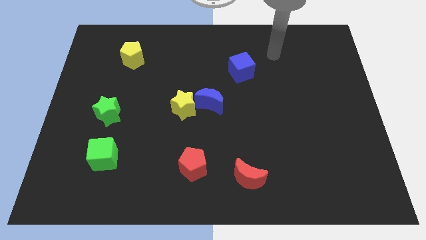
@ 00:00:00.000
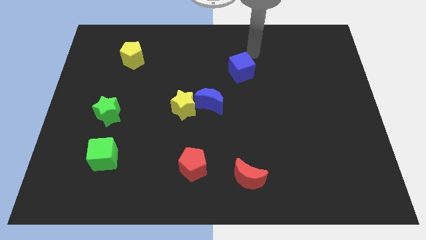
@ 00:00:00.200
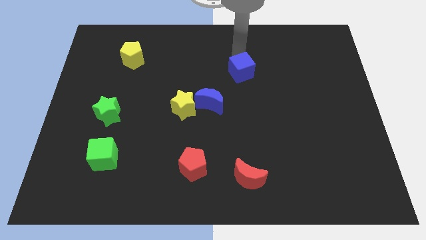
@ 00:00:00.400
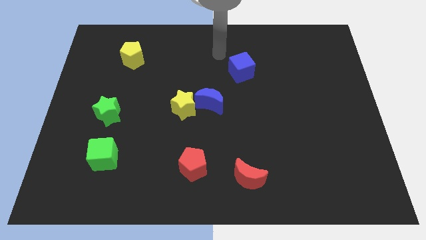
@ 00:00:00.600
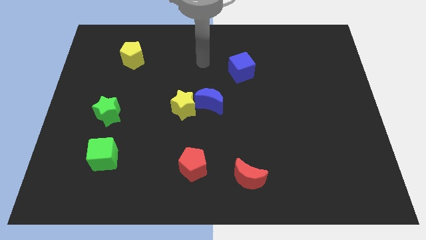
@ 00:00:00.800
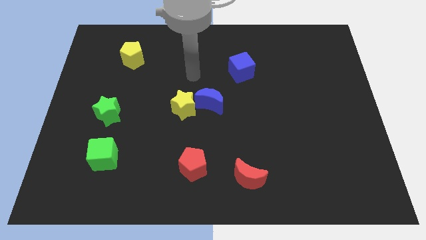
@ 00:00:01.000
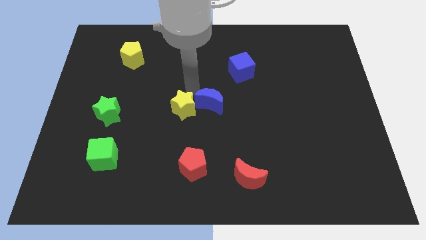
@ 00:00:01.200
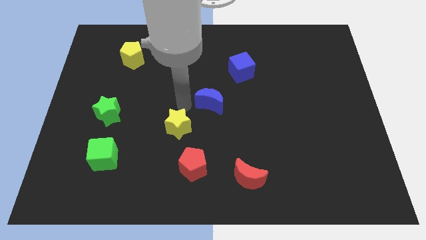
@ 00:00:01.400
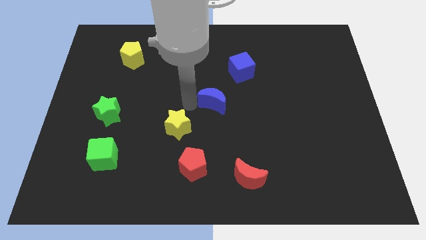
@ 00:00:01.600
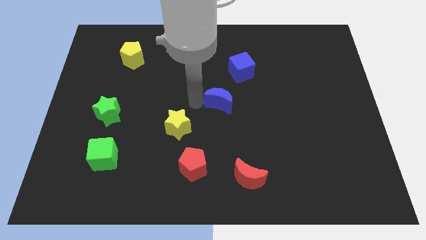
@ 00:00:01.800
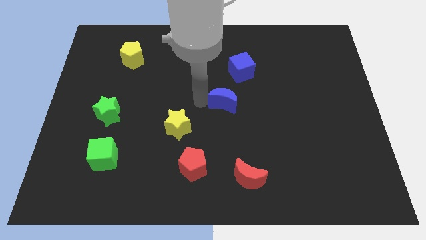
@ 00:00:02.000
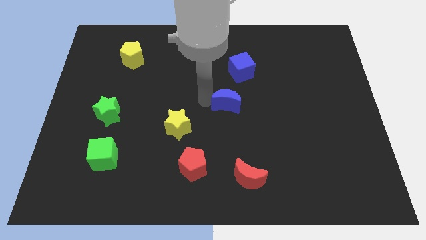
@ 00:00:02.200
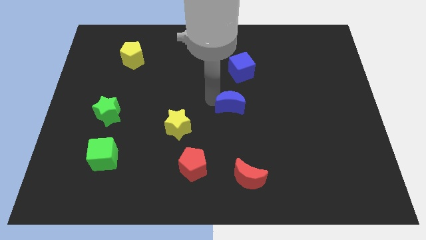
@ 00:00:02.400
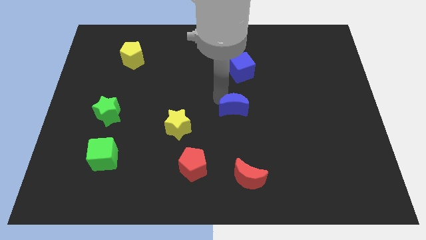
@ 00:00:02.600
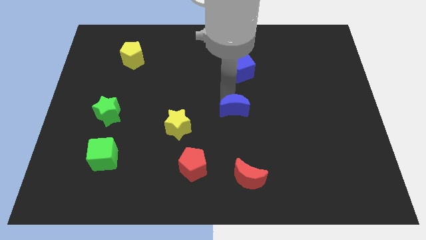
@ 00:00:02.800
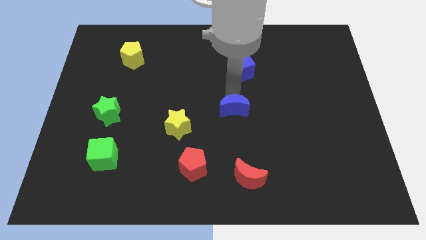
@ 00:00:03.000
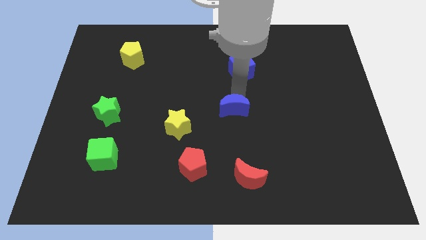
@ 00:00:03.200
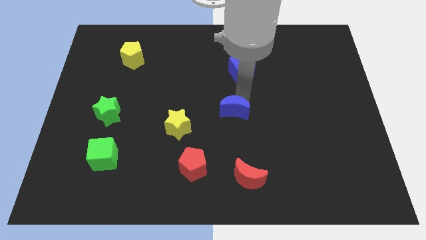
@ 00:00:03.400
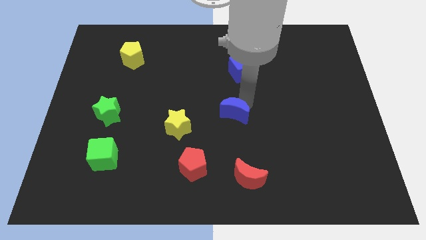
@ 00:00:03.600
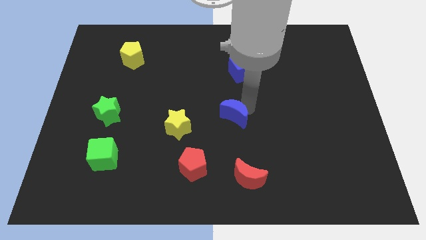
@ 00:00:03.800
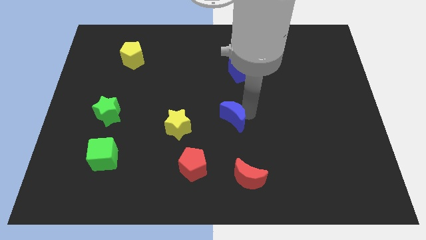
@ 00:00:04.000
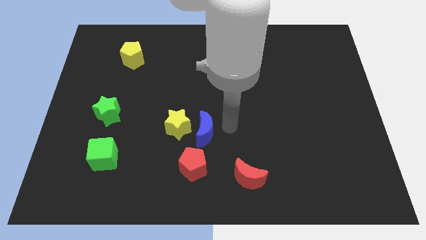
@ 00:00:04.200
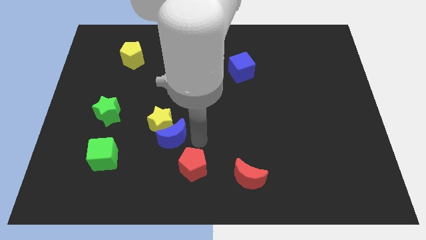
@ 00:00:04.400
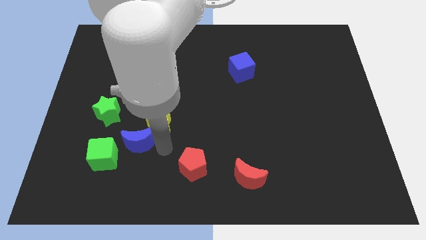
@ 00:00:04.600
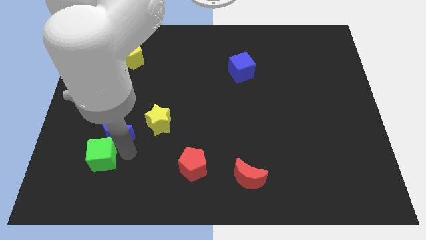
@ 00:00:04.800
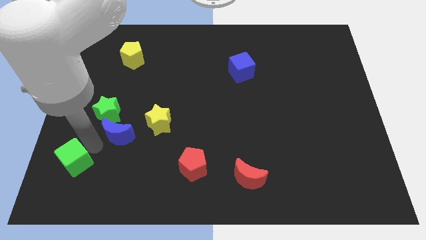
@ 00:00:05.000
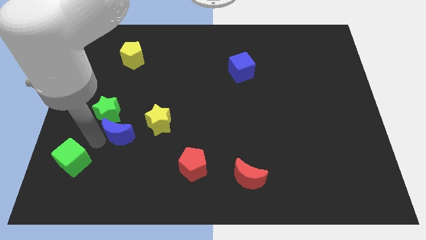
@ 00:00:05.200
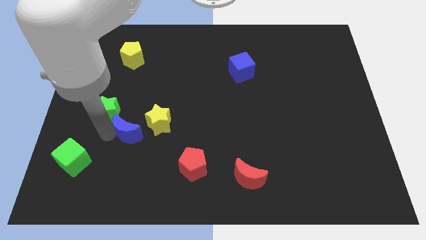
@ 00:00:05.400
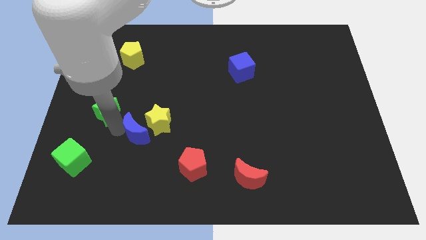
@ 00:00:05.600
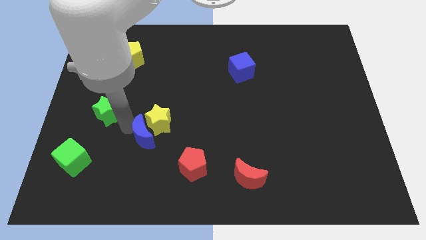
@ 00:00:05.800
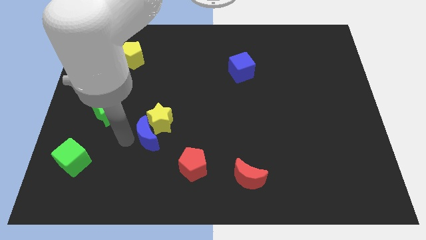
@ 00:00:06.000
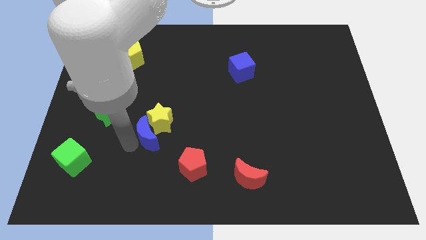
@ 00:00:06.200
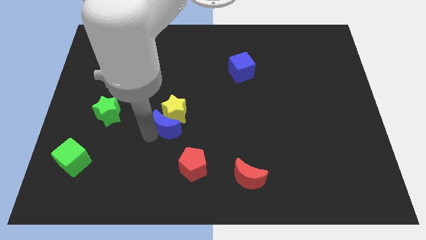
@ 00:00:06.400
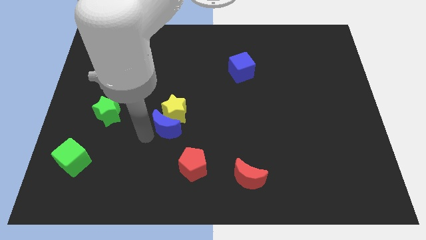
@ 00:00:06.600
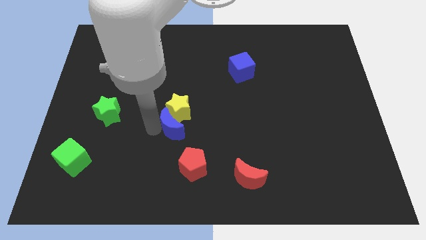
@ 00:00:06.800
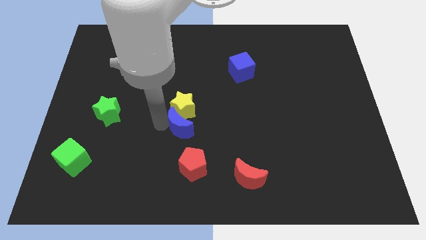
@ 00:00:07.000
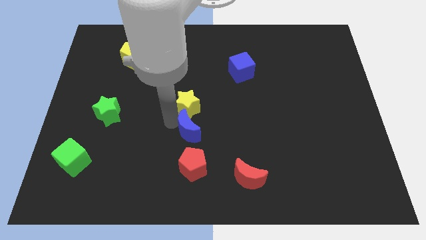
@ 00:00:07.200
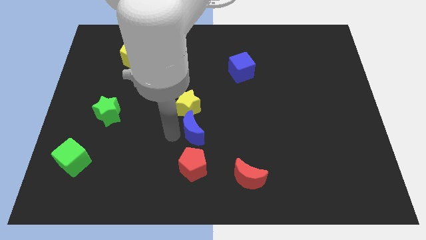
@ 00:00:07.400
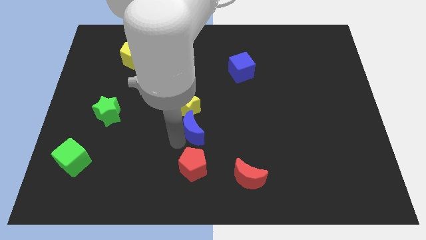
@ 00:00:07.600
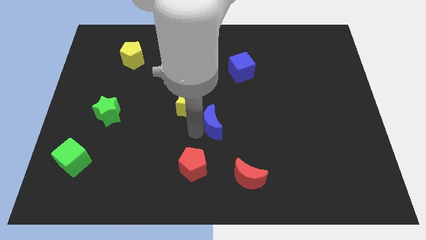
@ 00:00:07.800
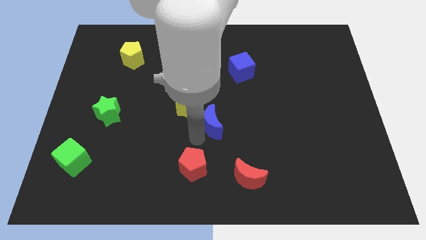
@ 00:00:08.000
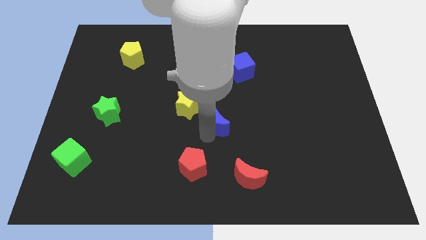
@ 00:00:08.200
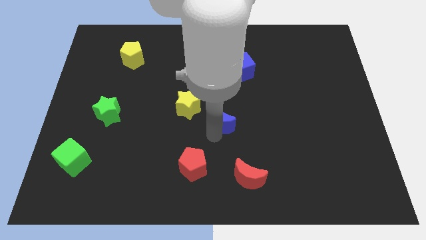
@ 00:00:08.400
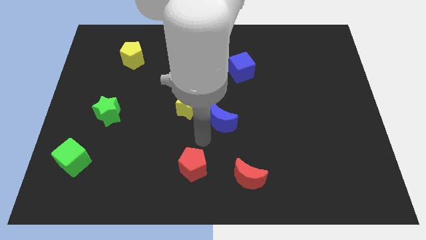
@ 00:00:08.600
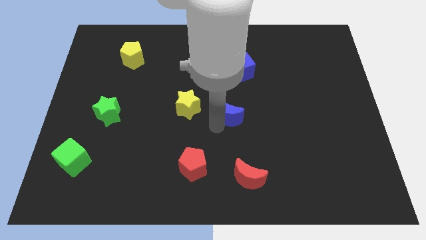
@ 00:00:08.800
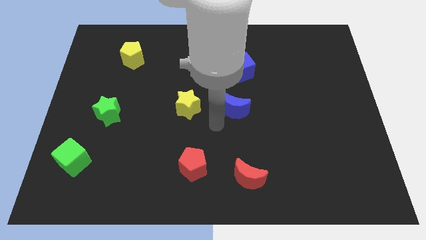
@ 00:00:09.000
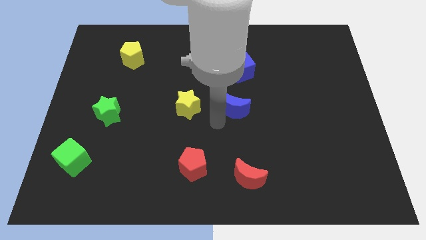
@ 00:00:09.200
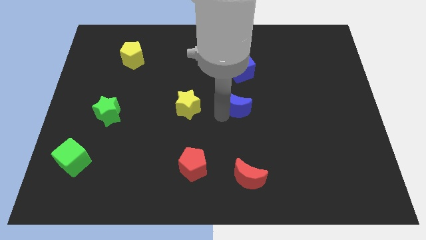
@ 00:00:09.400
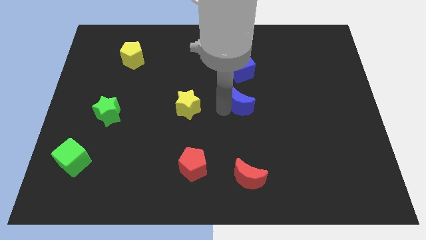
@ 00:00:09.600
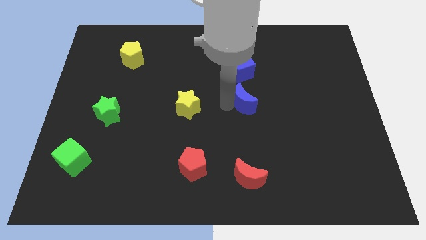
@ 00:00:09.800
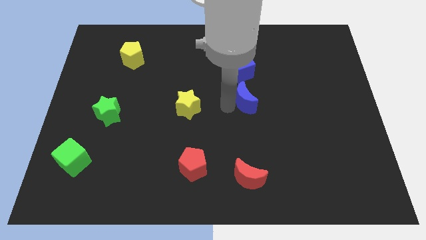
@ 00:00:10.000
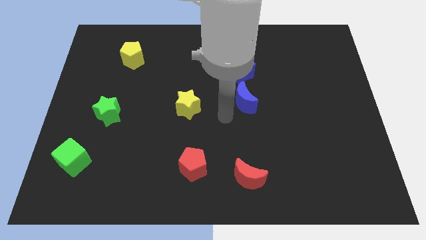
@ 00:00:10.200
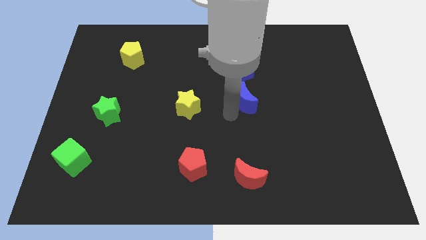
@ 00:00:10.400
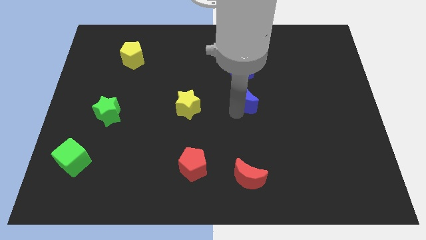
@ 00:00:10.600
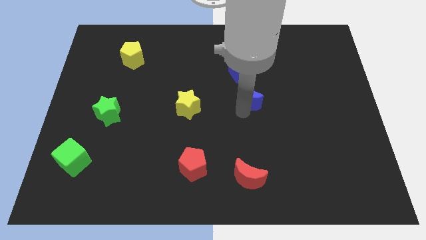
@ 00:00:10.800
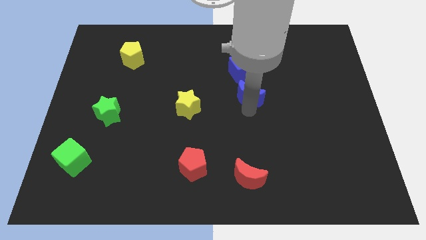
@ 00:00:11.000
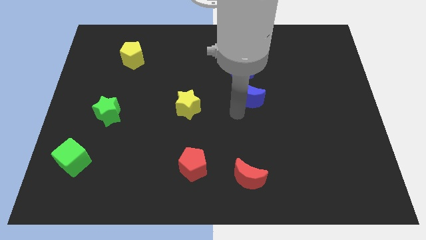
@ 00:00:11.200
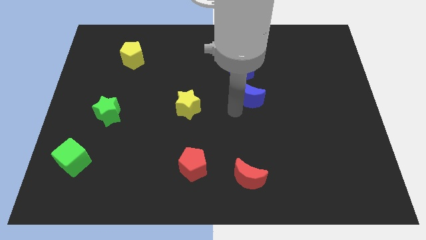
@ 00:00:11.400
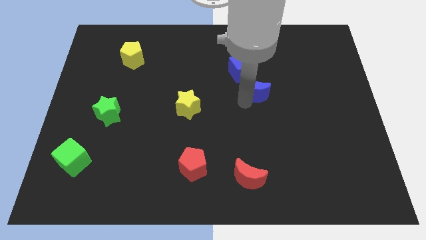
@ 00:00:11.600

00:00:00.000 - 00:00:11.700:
put the blue moon to the bottom right side of the blue cube

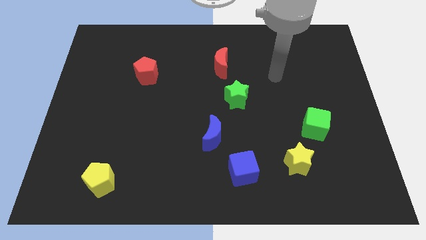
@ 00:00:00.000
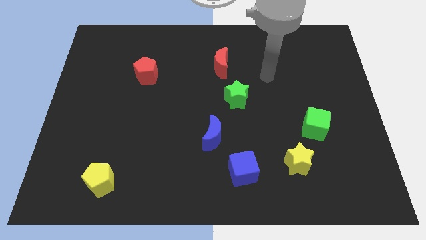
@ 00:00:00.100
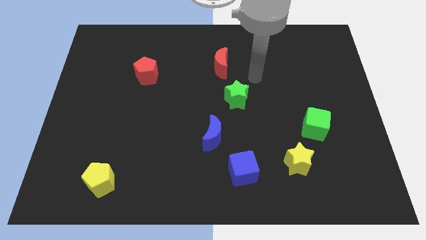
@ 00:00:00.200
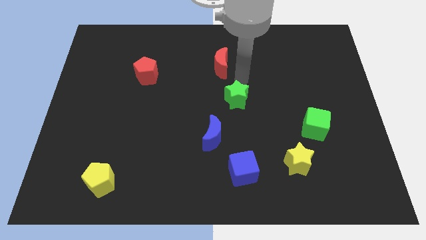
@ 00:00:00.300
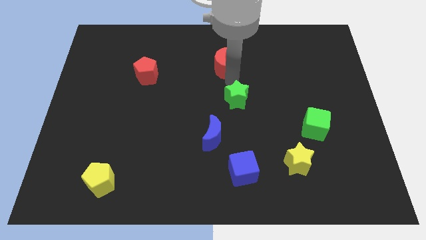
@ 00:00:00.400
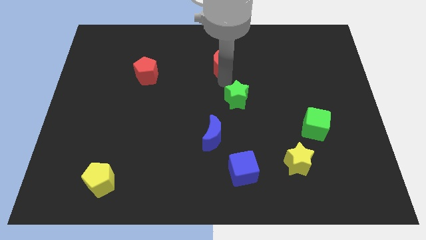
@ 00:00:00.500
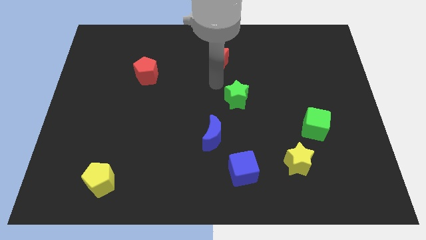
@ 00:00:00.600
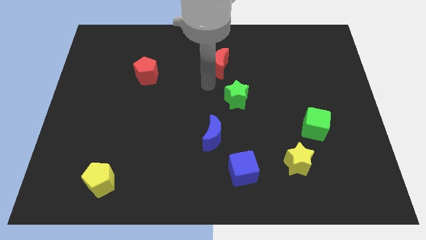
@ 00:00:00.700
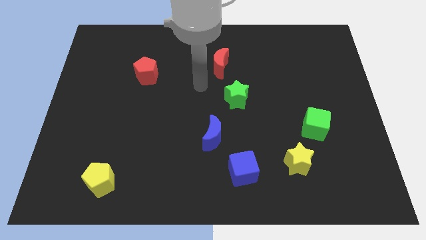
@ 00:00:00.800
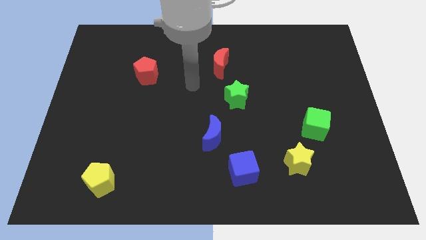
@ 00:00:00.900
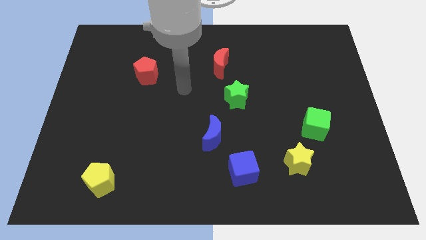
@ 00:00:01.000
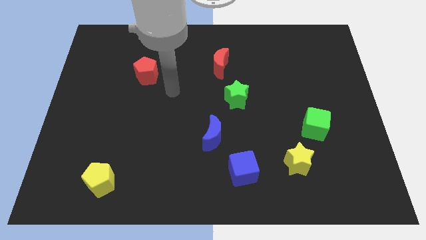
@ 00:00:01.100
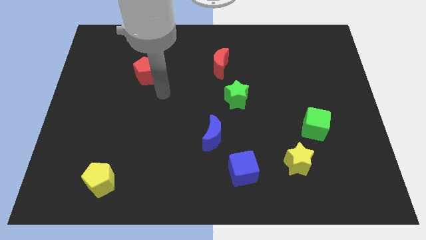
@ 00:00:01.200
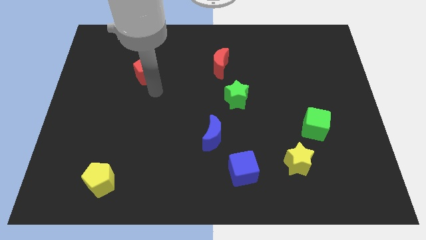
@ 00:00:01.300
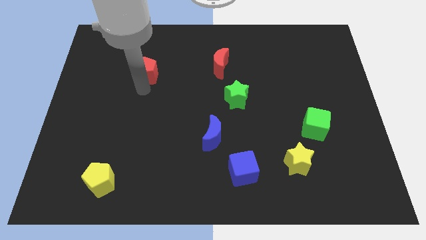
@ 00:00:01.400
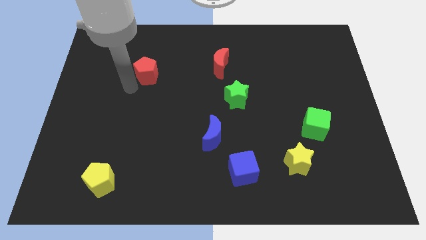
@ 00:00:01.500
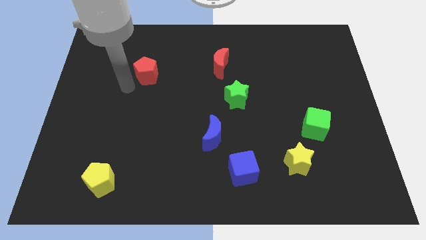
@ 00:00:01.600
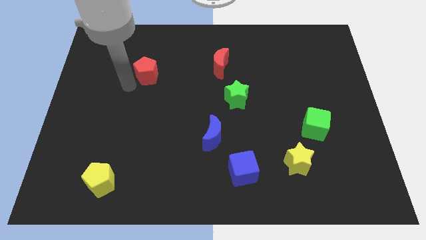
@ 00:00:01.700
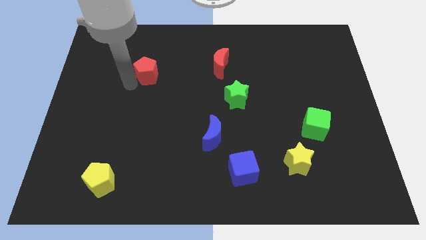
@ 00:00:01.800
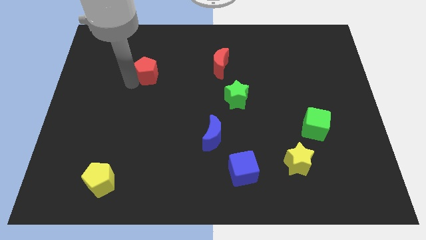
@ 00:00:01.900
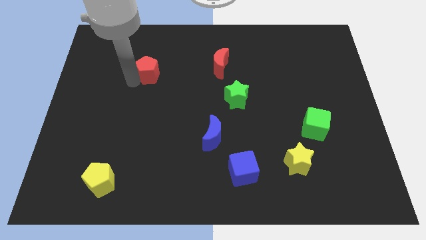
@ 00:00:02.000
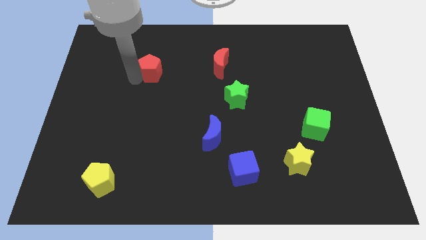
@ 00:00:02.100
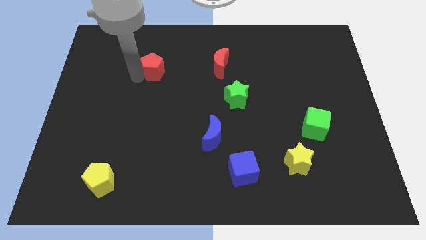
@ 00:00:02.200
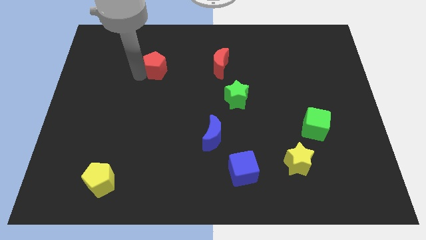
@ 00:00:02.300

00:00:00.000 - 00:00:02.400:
put the red pentagon to the left of the red moon
